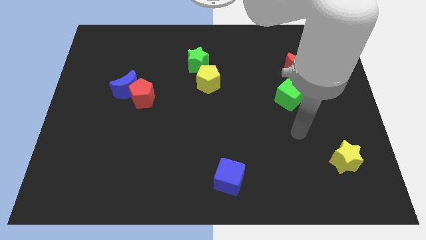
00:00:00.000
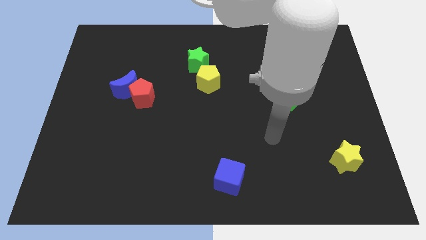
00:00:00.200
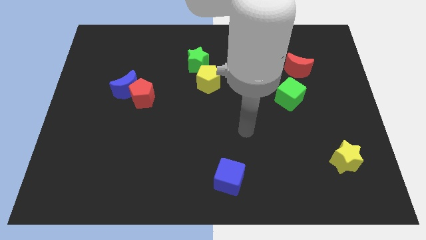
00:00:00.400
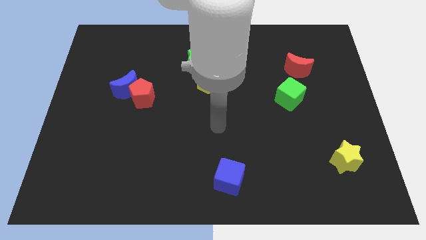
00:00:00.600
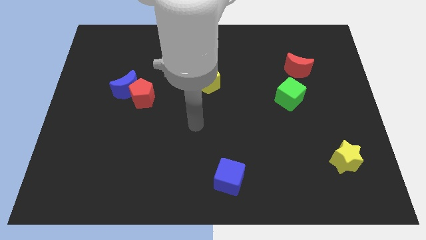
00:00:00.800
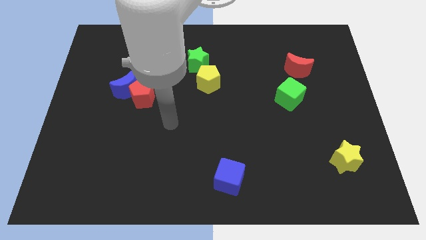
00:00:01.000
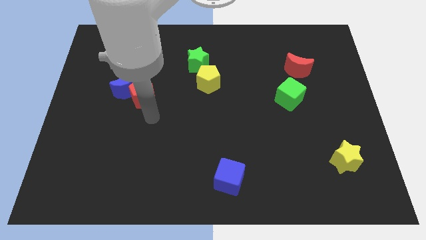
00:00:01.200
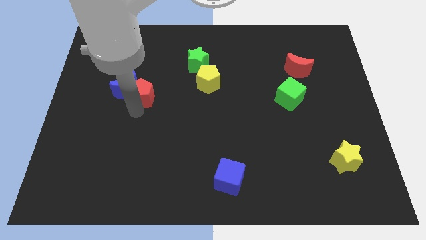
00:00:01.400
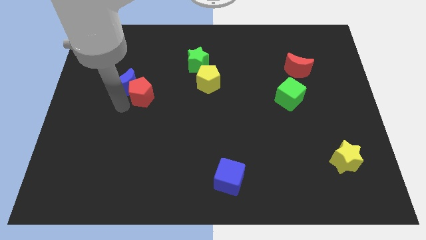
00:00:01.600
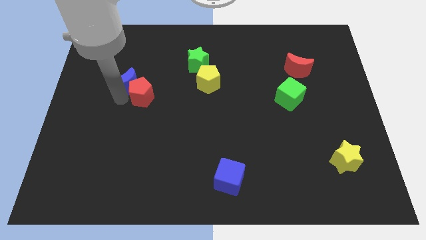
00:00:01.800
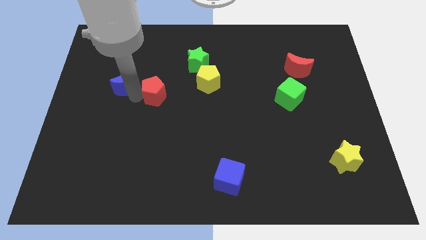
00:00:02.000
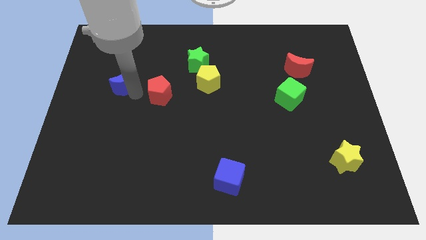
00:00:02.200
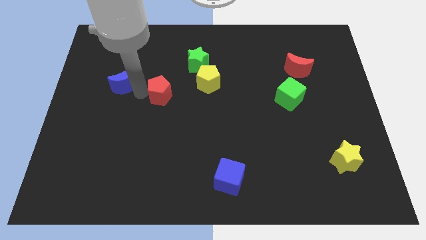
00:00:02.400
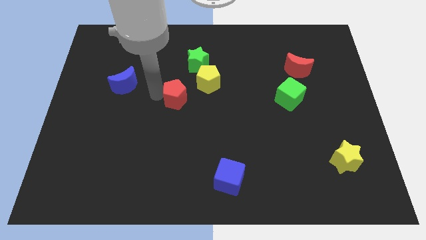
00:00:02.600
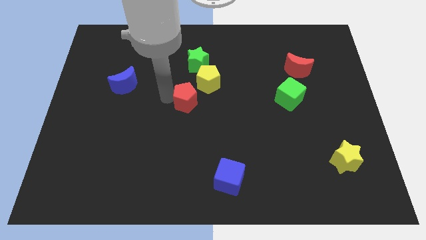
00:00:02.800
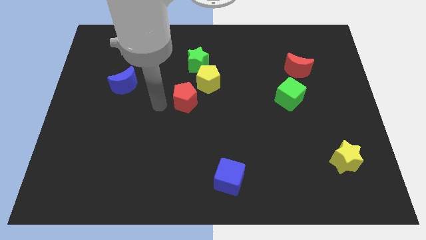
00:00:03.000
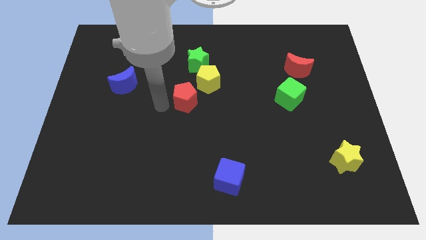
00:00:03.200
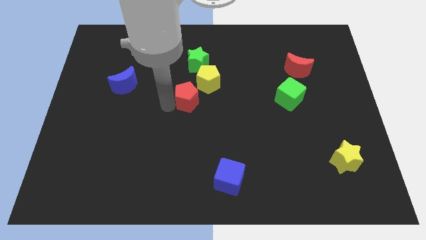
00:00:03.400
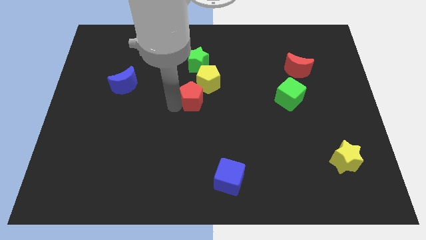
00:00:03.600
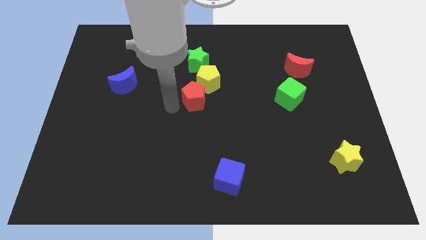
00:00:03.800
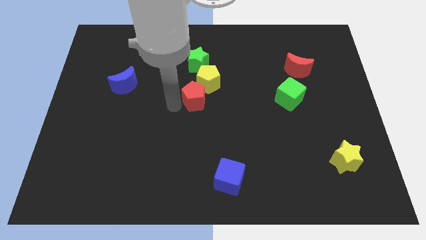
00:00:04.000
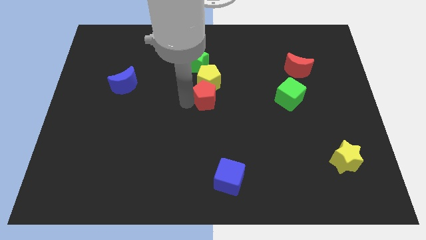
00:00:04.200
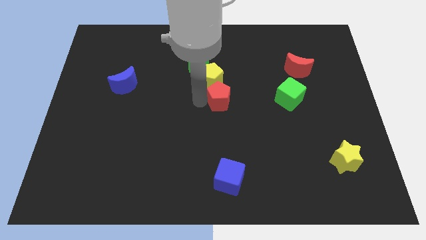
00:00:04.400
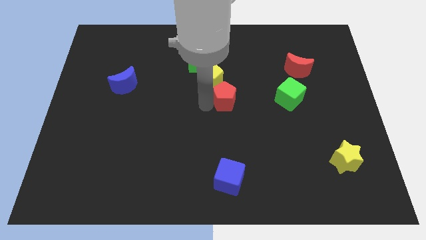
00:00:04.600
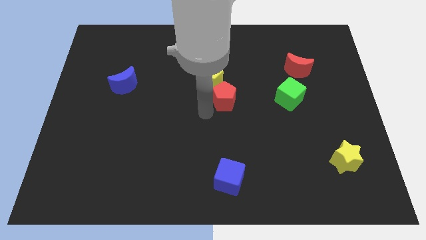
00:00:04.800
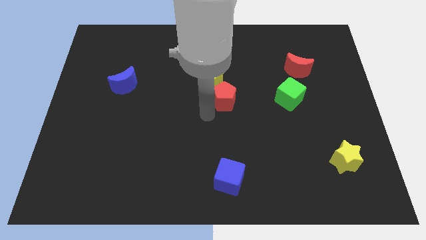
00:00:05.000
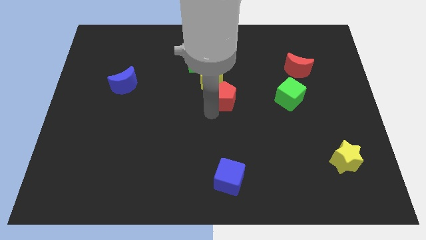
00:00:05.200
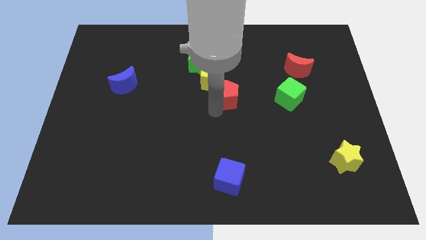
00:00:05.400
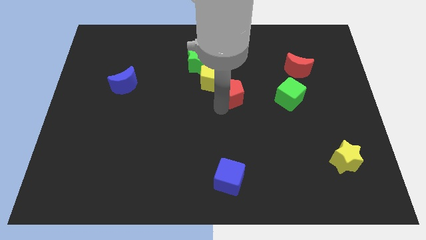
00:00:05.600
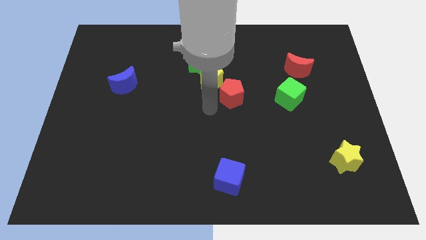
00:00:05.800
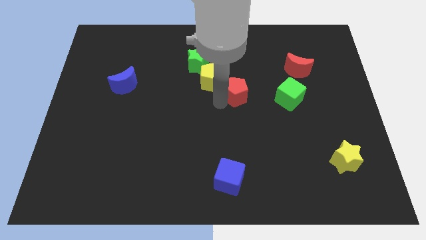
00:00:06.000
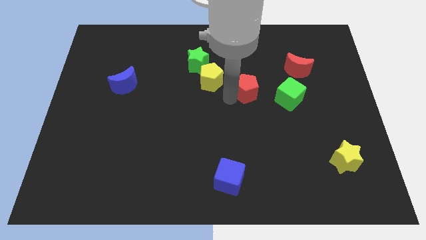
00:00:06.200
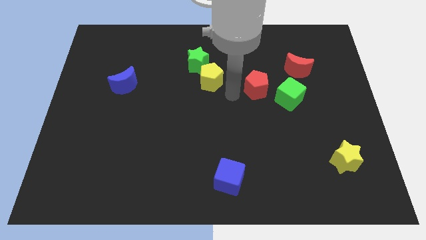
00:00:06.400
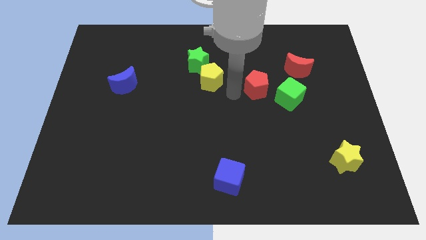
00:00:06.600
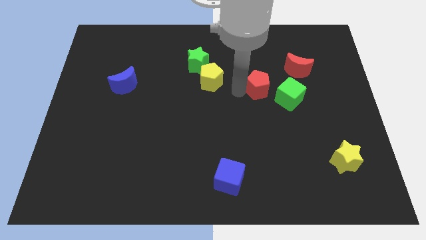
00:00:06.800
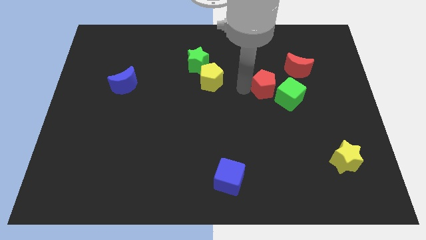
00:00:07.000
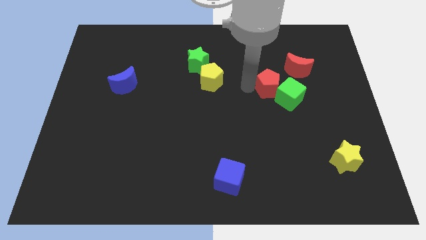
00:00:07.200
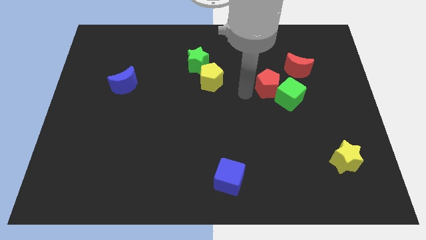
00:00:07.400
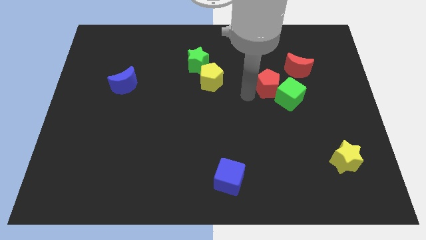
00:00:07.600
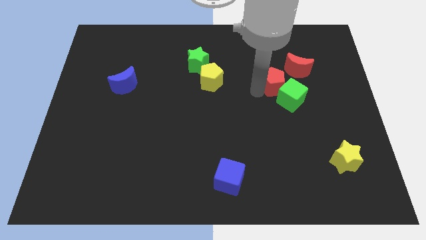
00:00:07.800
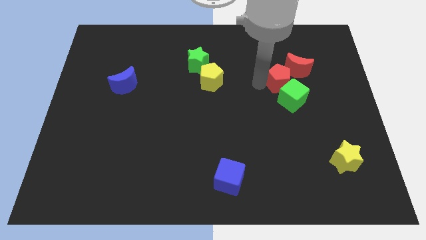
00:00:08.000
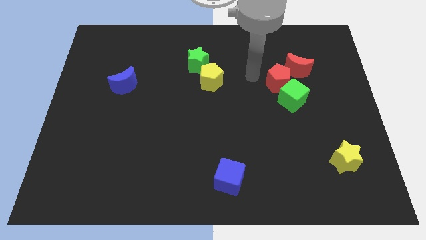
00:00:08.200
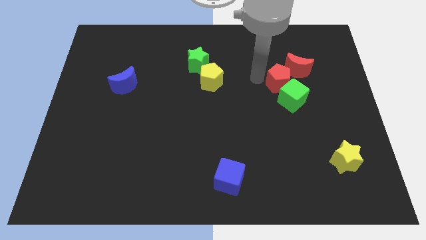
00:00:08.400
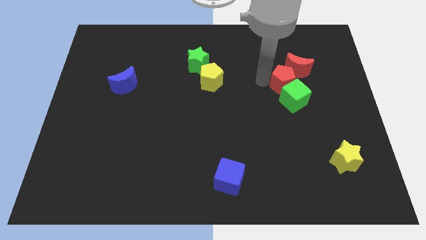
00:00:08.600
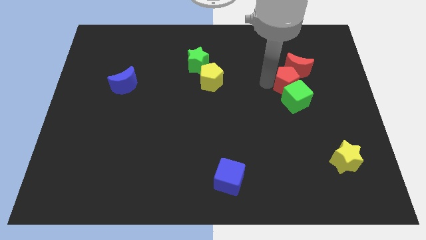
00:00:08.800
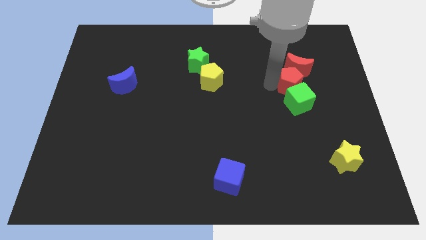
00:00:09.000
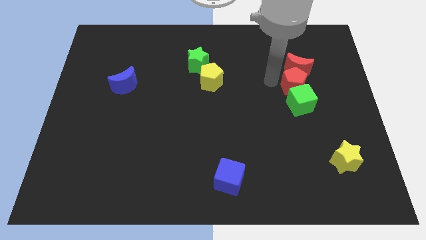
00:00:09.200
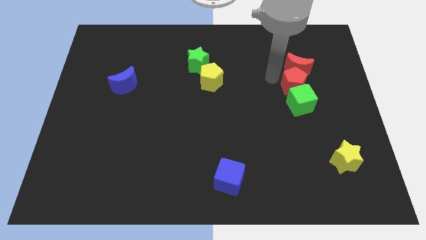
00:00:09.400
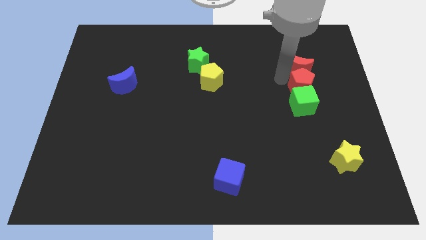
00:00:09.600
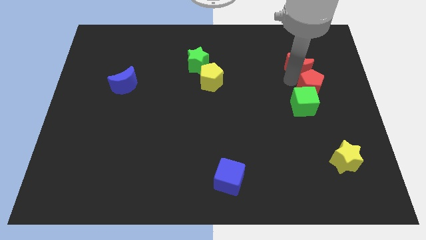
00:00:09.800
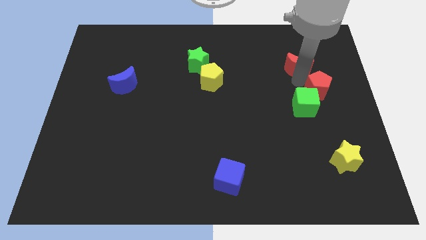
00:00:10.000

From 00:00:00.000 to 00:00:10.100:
put the red pentagon to the right of the green cube

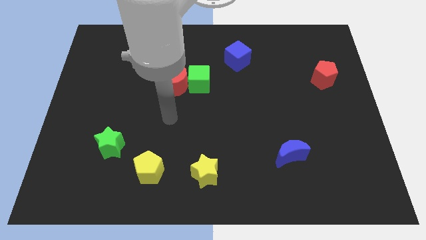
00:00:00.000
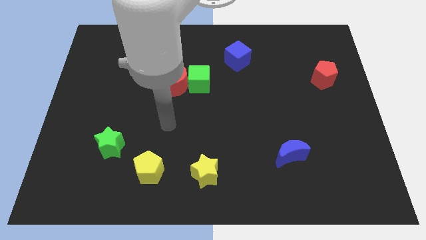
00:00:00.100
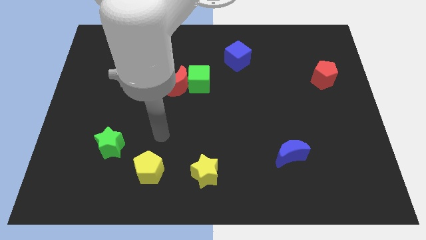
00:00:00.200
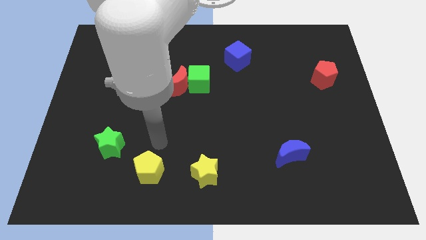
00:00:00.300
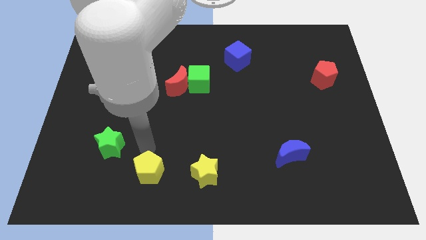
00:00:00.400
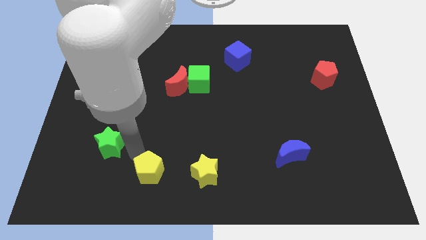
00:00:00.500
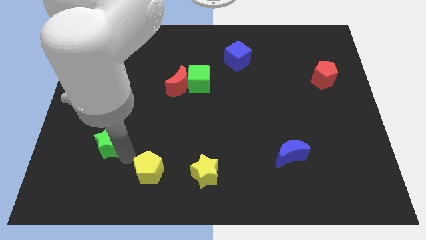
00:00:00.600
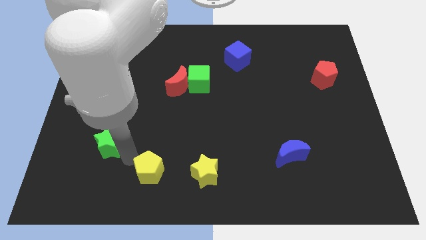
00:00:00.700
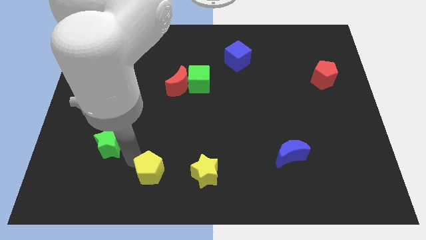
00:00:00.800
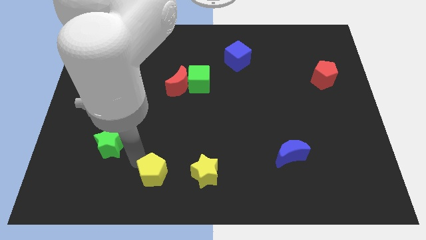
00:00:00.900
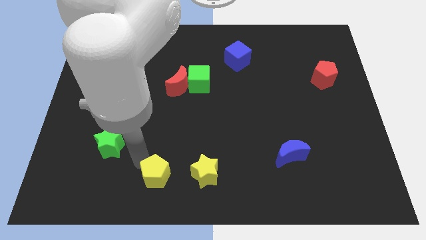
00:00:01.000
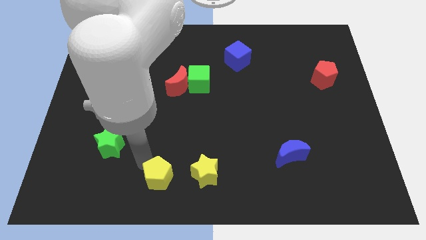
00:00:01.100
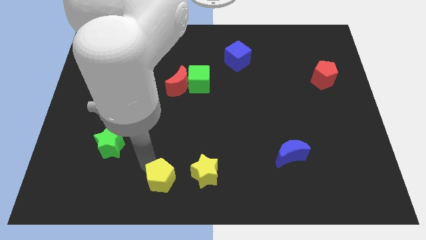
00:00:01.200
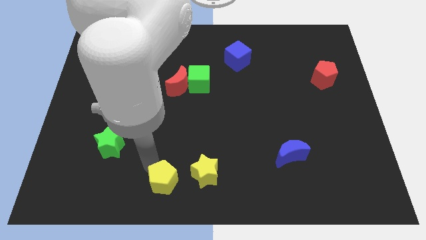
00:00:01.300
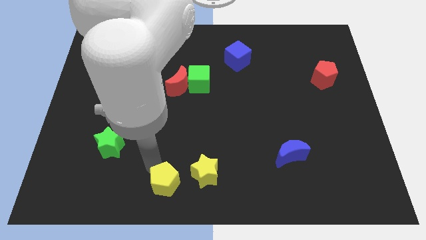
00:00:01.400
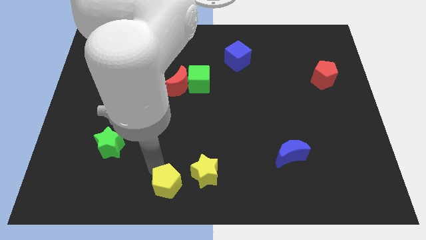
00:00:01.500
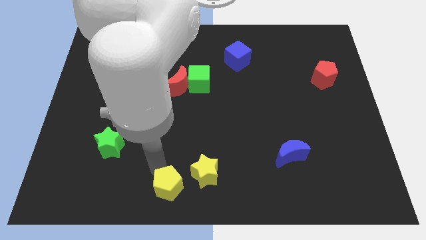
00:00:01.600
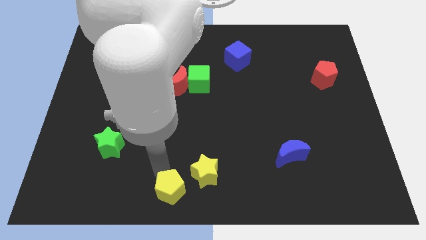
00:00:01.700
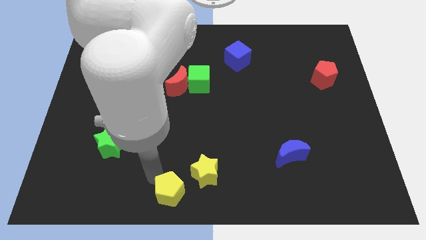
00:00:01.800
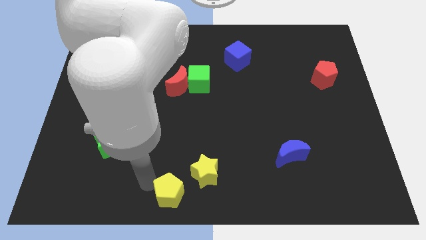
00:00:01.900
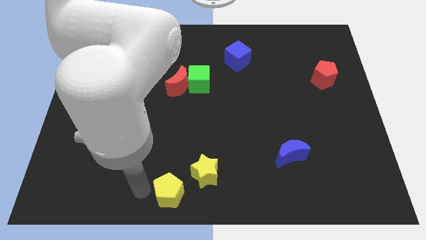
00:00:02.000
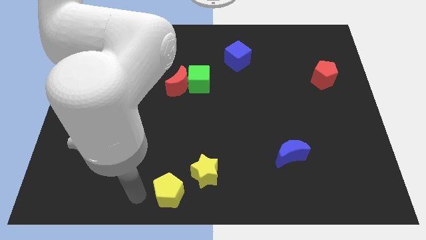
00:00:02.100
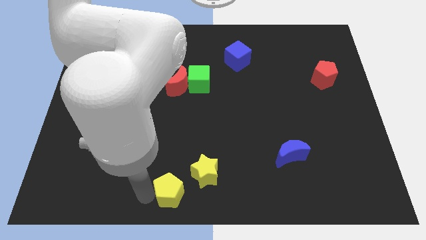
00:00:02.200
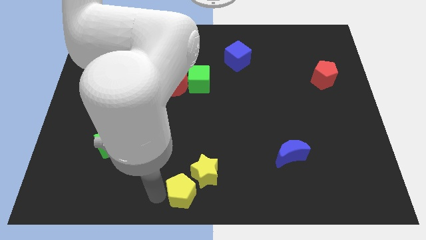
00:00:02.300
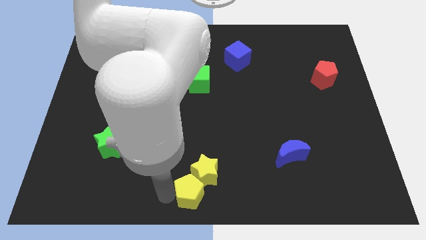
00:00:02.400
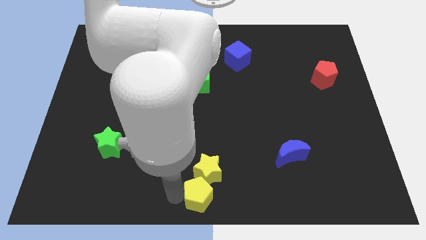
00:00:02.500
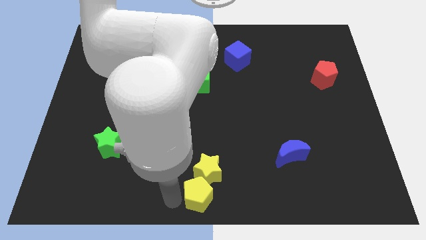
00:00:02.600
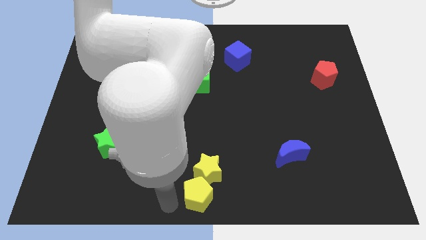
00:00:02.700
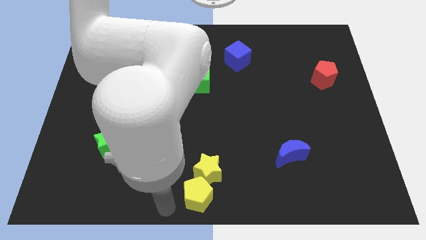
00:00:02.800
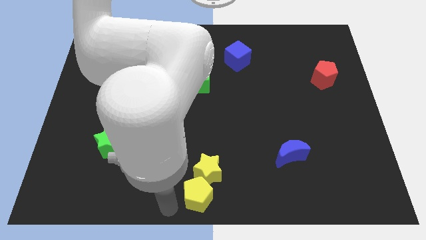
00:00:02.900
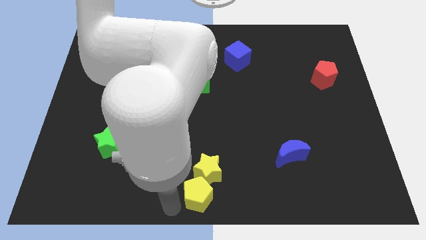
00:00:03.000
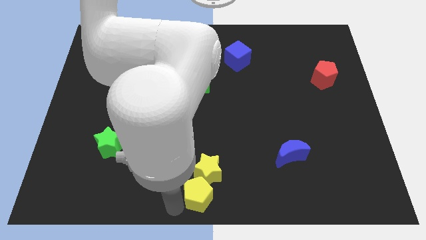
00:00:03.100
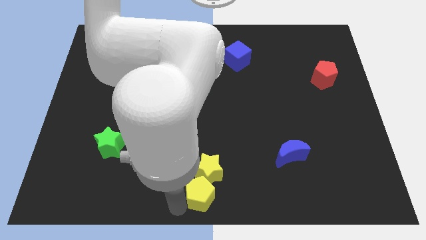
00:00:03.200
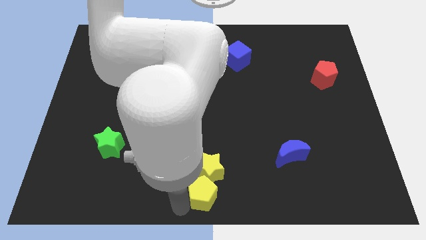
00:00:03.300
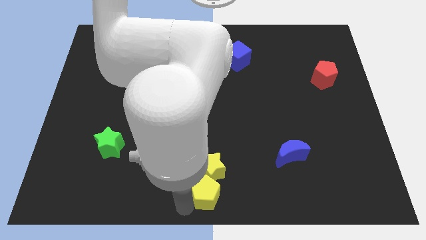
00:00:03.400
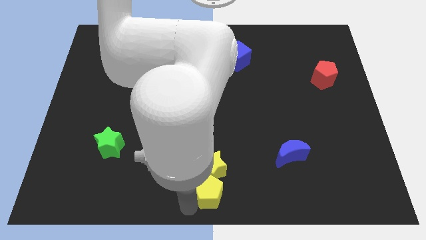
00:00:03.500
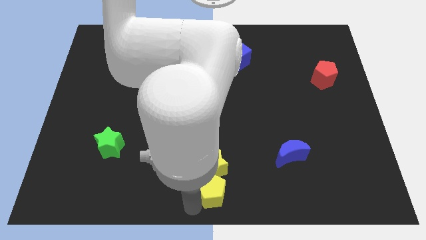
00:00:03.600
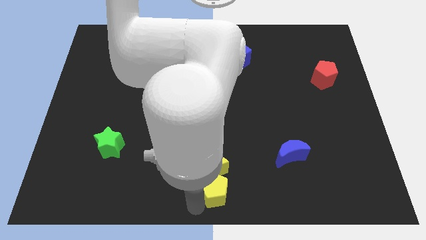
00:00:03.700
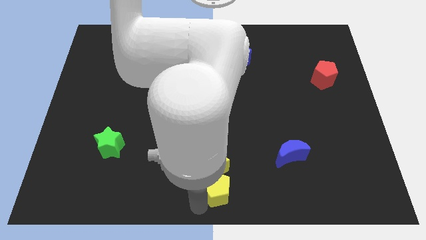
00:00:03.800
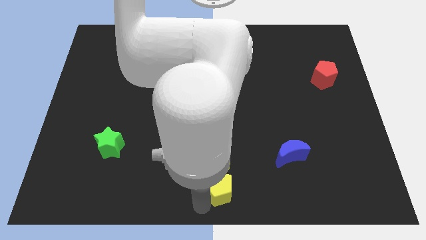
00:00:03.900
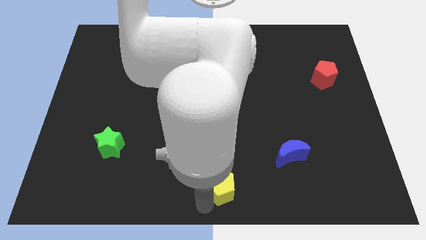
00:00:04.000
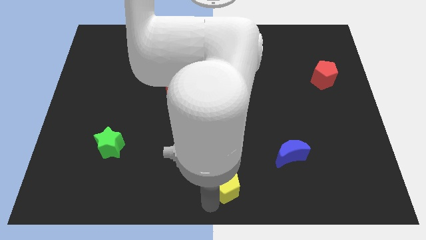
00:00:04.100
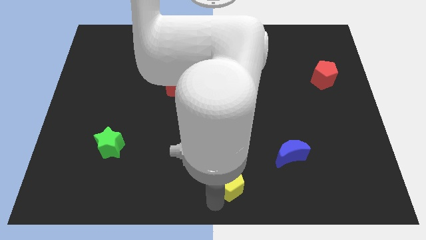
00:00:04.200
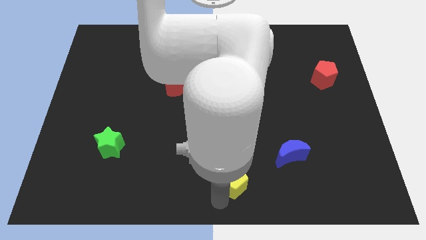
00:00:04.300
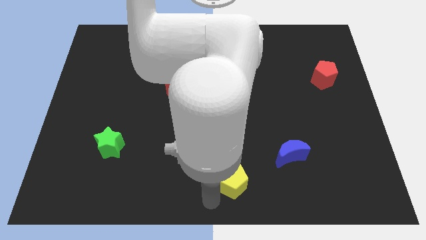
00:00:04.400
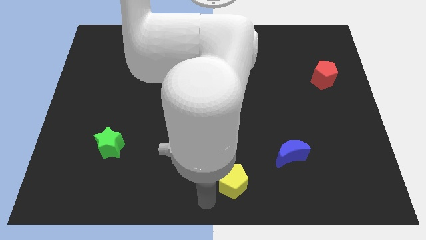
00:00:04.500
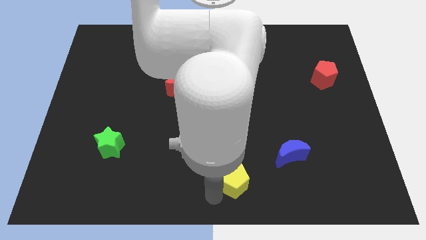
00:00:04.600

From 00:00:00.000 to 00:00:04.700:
slide the yellow pentagon just right of the yellow star
